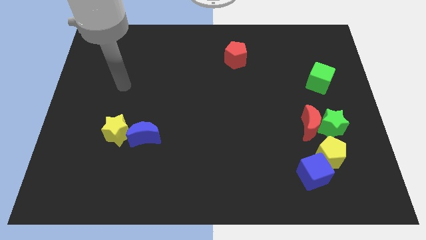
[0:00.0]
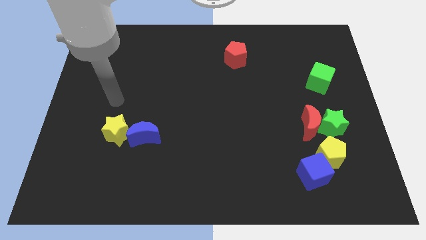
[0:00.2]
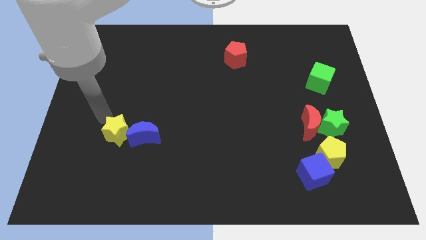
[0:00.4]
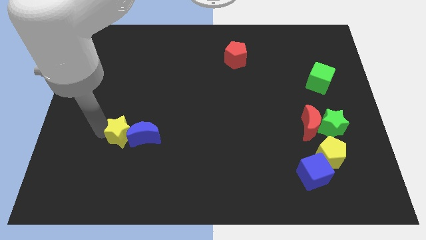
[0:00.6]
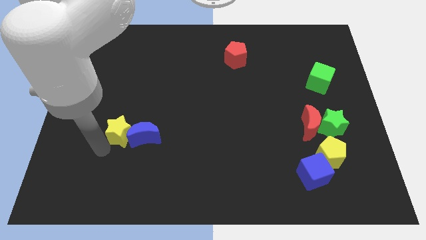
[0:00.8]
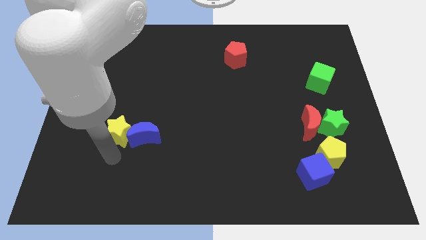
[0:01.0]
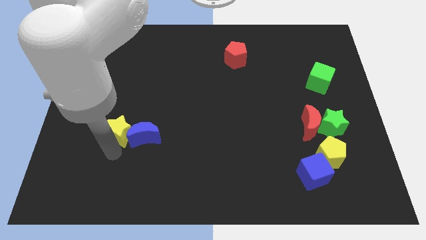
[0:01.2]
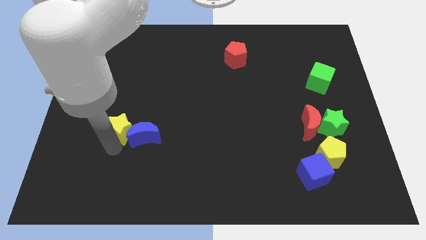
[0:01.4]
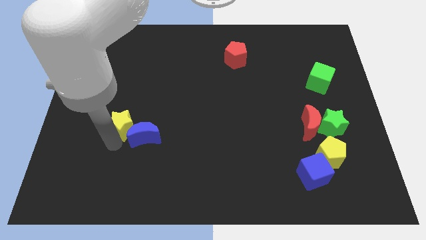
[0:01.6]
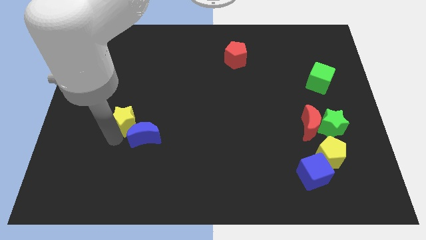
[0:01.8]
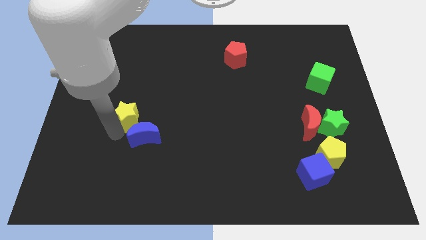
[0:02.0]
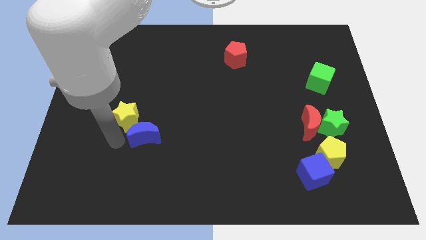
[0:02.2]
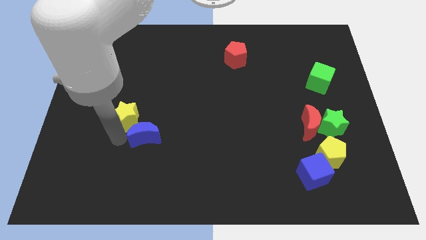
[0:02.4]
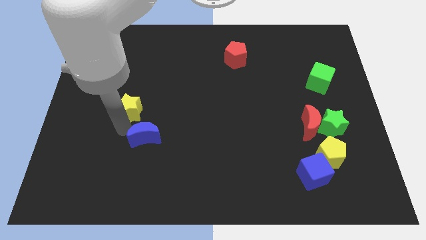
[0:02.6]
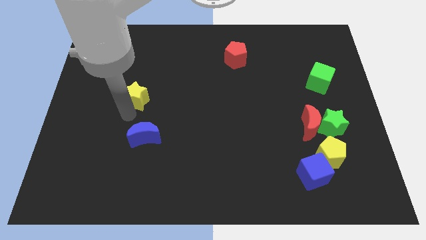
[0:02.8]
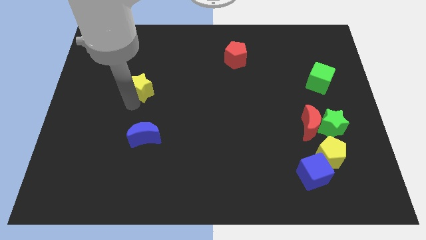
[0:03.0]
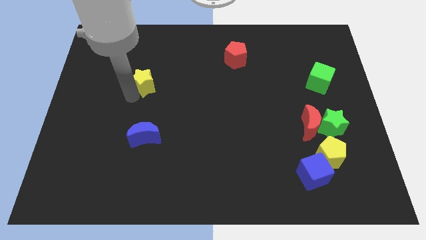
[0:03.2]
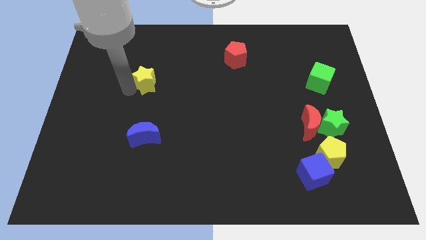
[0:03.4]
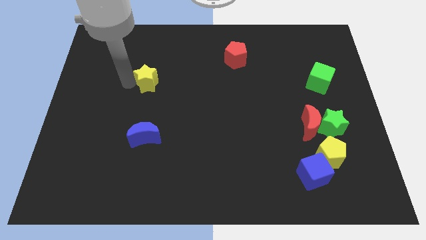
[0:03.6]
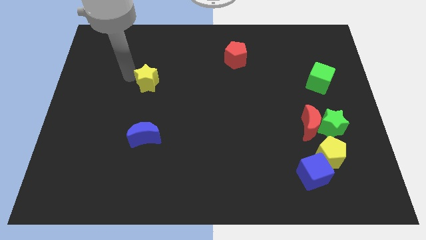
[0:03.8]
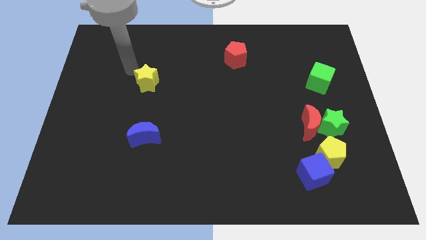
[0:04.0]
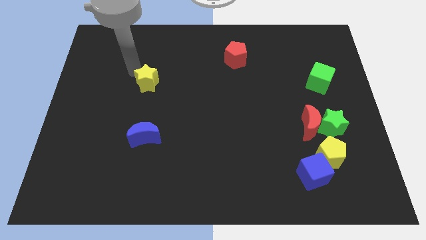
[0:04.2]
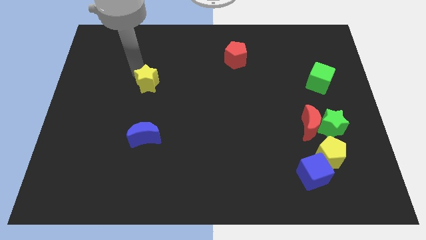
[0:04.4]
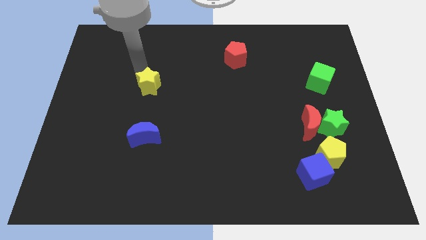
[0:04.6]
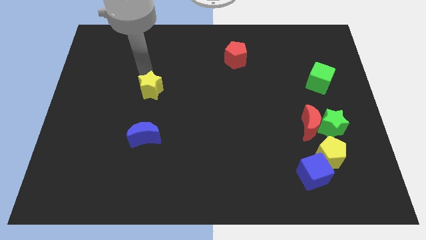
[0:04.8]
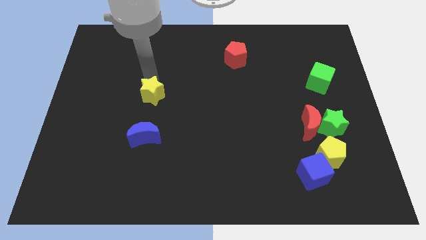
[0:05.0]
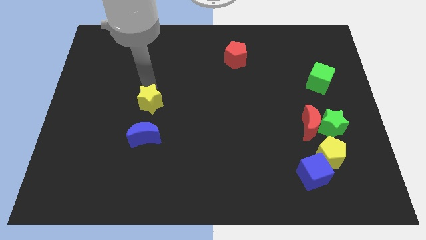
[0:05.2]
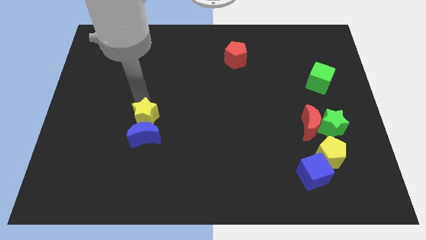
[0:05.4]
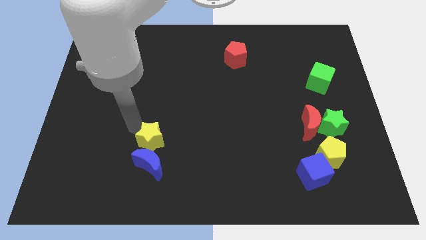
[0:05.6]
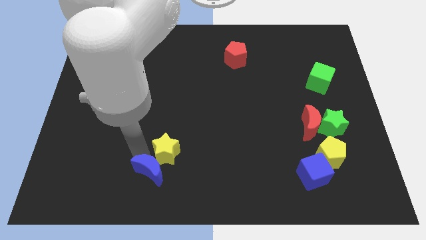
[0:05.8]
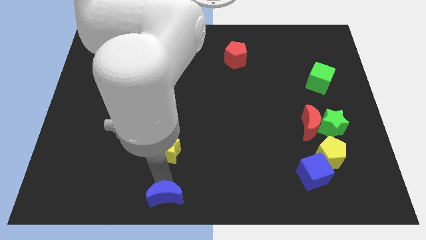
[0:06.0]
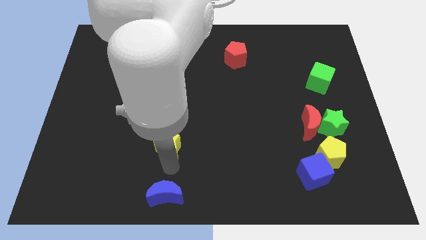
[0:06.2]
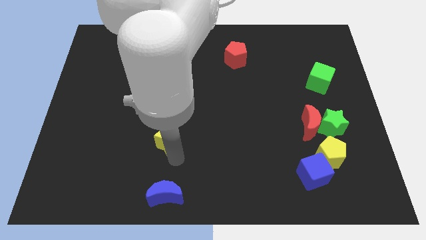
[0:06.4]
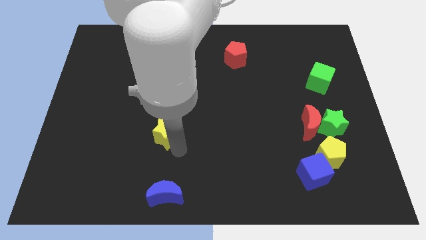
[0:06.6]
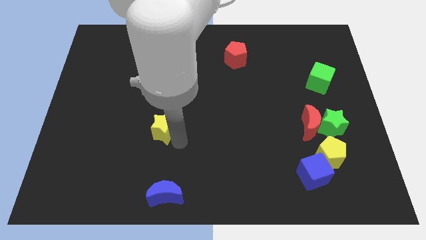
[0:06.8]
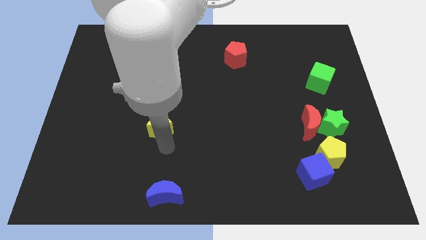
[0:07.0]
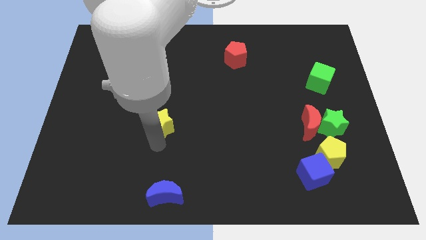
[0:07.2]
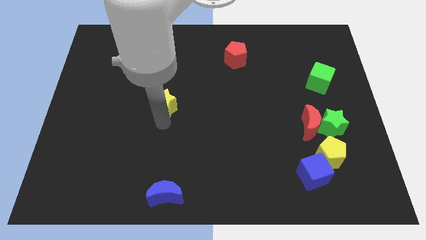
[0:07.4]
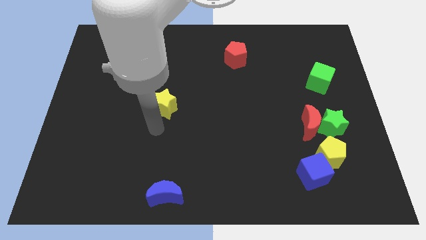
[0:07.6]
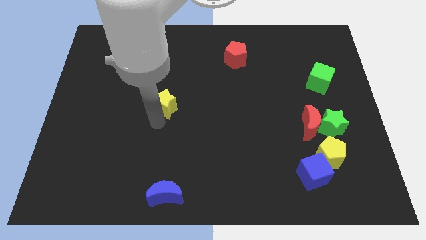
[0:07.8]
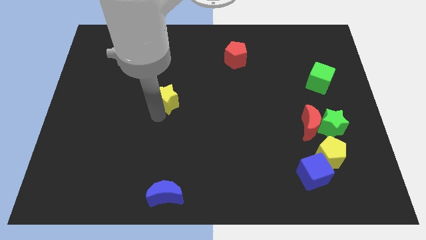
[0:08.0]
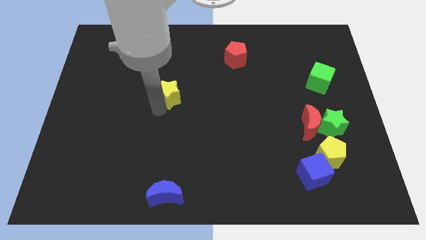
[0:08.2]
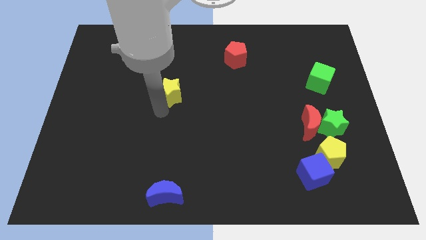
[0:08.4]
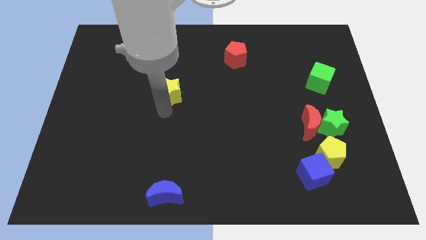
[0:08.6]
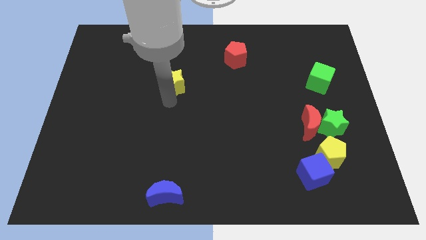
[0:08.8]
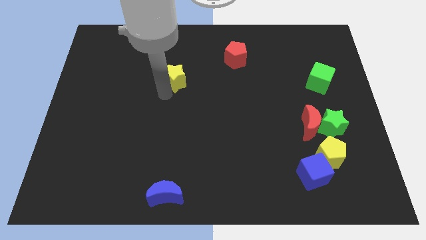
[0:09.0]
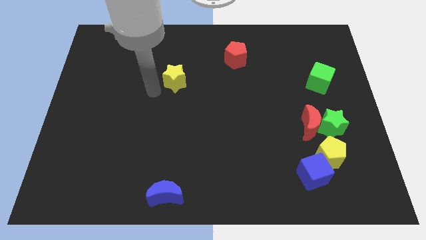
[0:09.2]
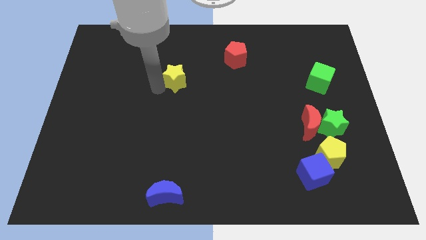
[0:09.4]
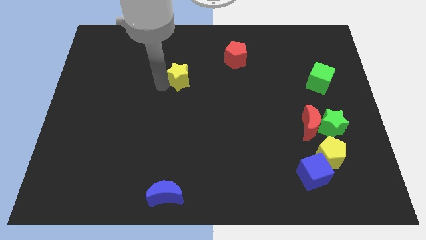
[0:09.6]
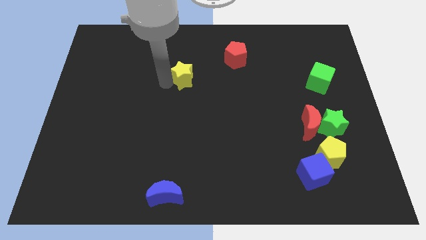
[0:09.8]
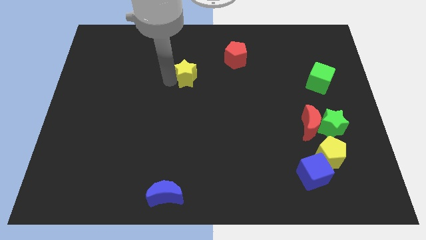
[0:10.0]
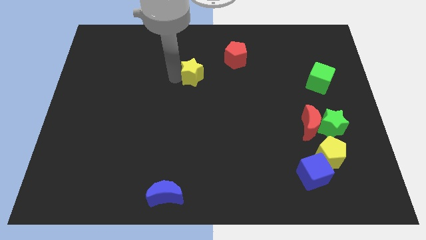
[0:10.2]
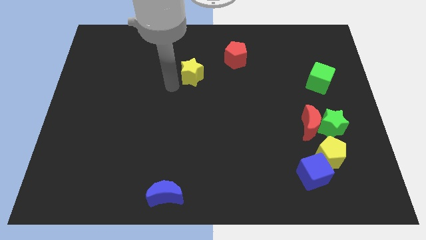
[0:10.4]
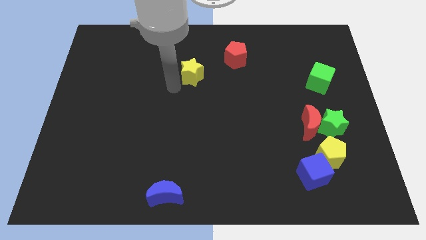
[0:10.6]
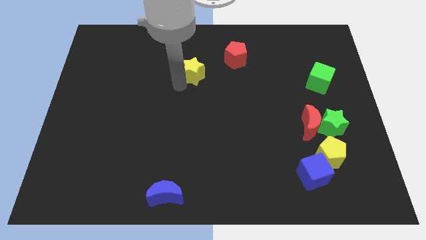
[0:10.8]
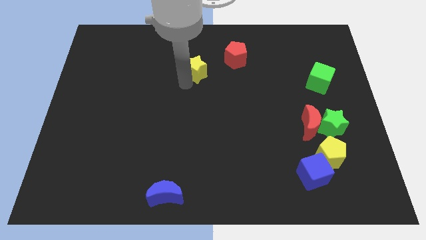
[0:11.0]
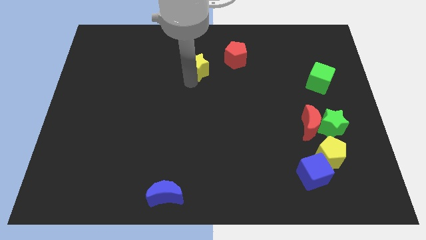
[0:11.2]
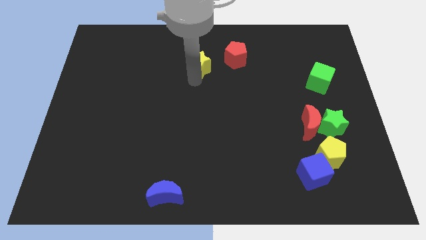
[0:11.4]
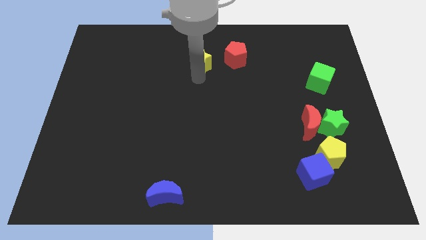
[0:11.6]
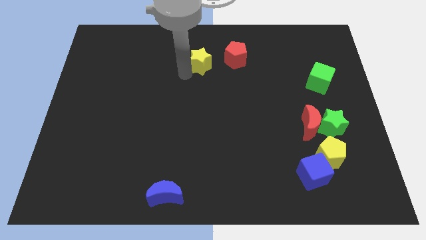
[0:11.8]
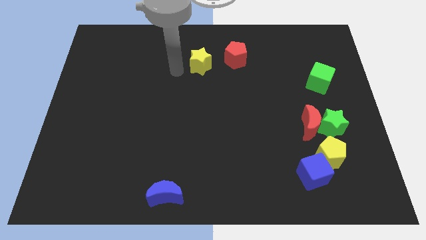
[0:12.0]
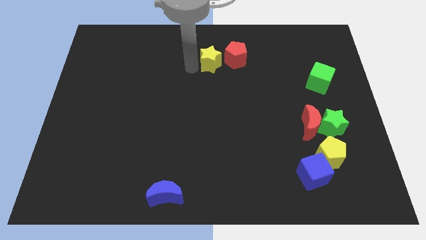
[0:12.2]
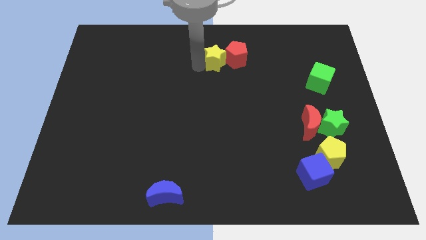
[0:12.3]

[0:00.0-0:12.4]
slide the yellow star to the red pentagon

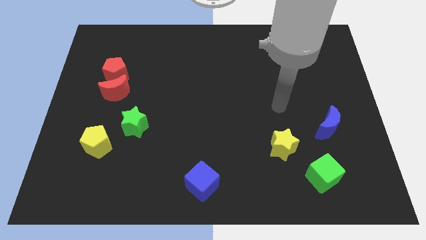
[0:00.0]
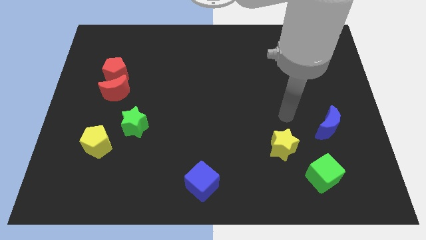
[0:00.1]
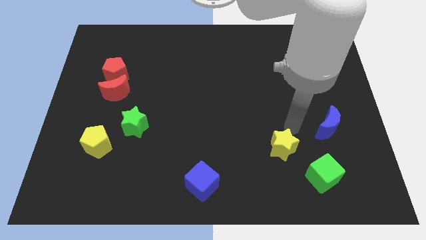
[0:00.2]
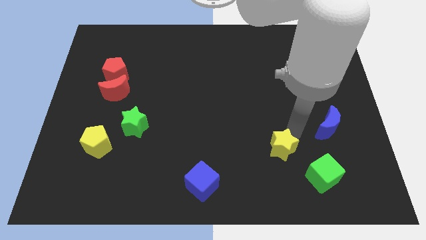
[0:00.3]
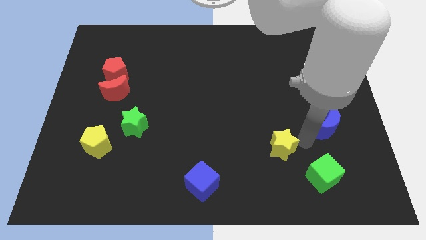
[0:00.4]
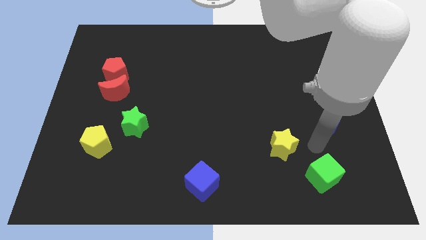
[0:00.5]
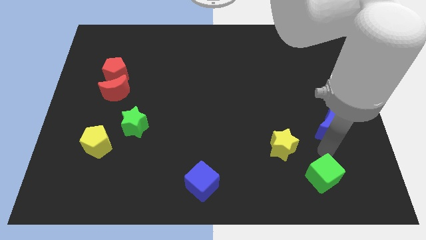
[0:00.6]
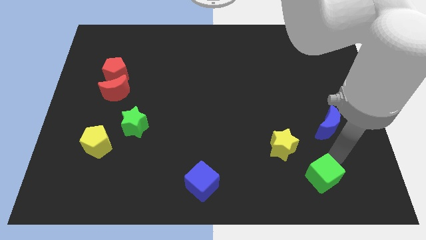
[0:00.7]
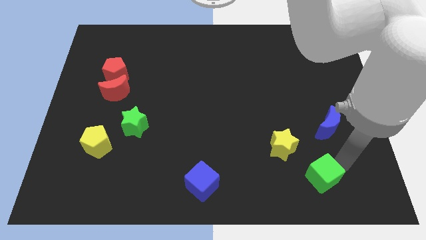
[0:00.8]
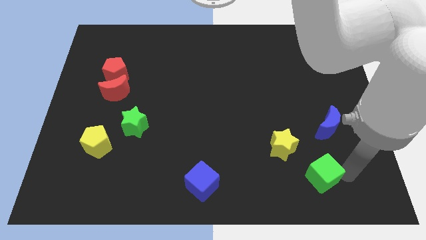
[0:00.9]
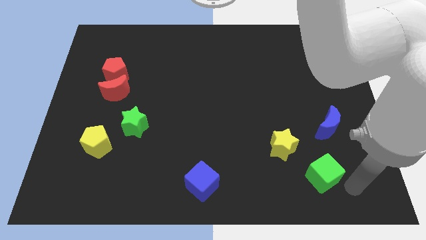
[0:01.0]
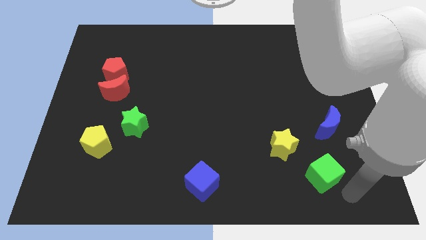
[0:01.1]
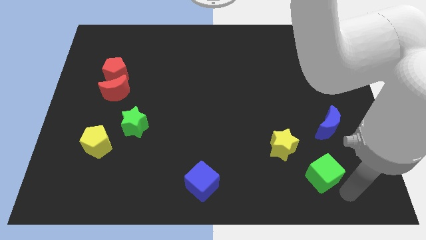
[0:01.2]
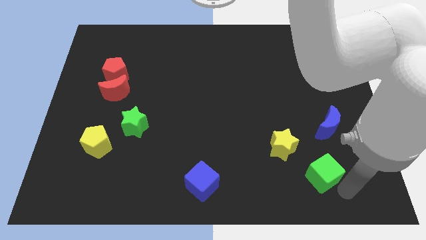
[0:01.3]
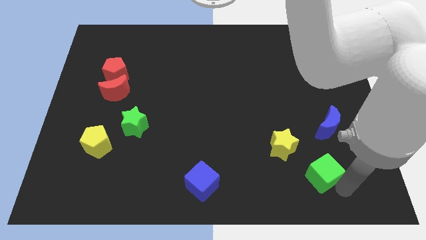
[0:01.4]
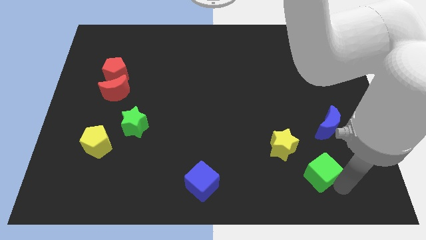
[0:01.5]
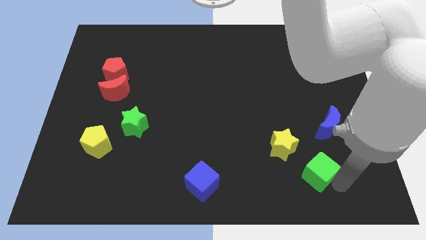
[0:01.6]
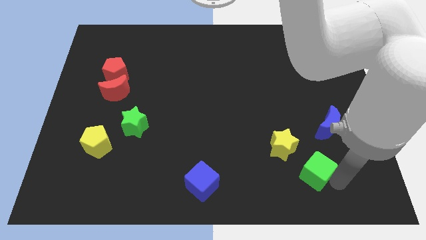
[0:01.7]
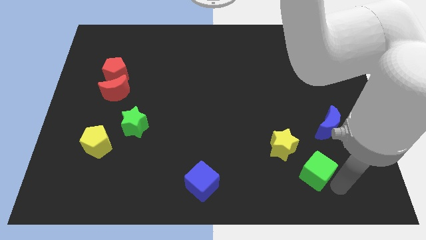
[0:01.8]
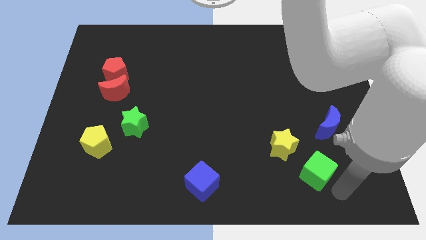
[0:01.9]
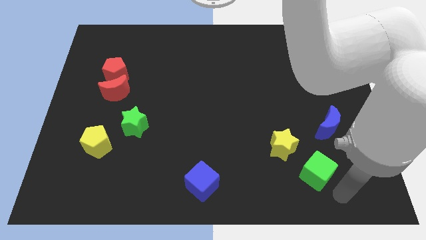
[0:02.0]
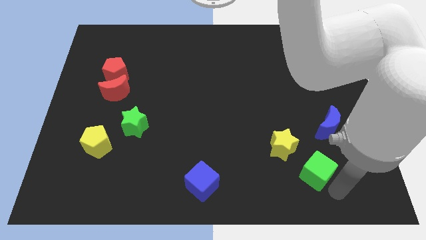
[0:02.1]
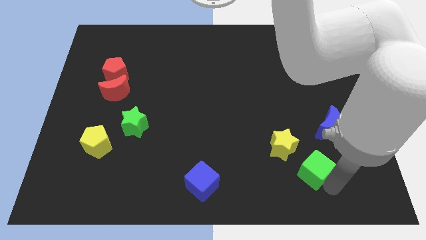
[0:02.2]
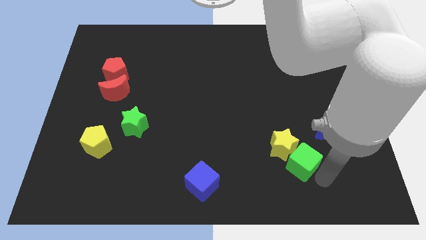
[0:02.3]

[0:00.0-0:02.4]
move the green cube next to the yellow star
